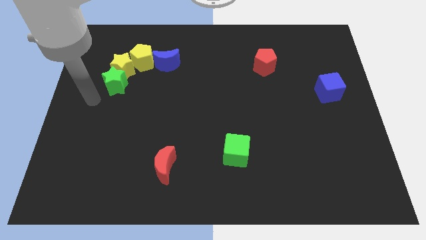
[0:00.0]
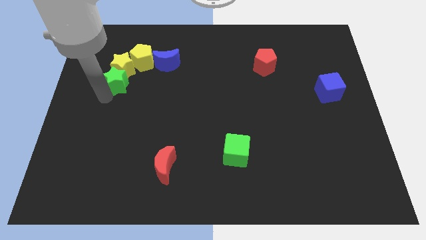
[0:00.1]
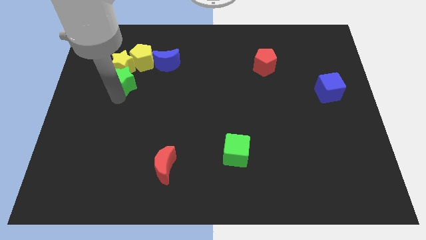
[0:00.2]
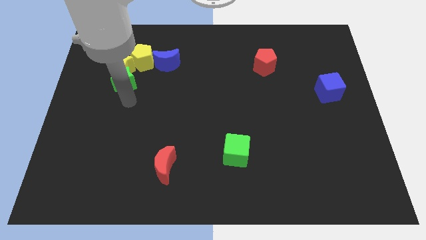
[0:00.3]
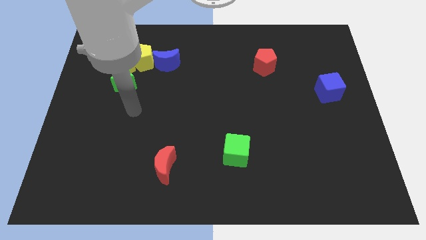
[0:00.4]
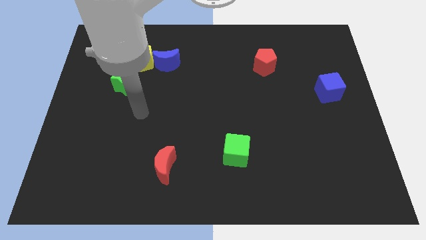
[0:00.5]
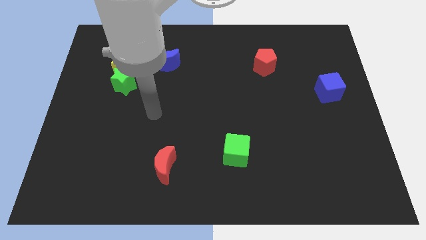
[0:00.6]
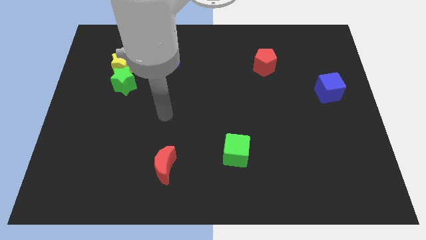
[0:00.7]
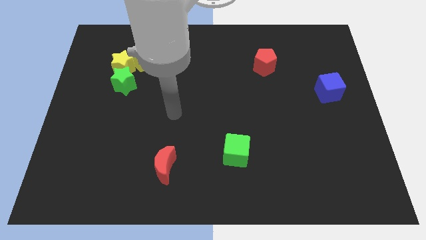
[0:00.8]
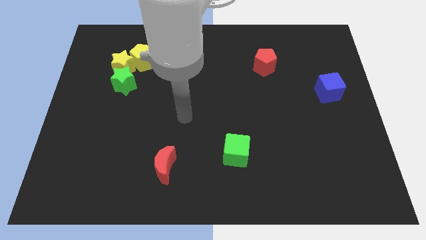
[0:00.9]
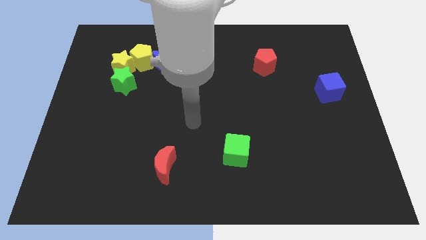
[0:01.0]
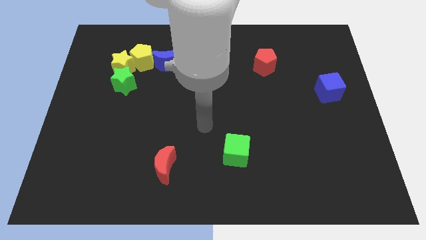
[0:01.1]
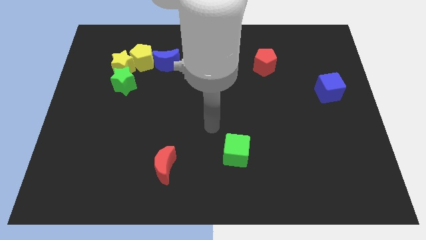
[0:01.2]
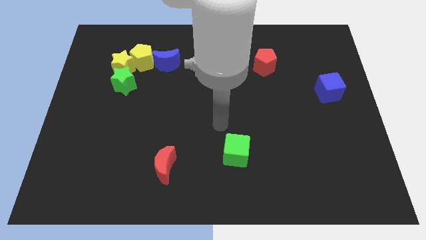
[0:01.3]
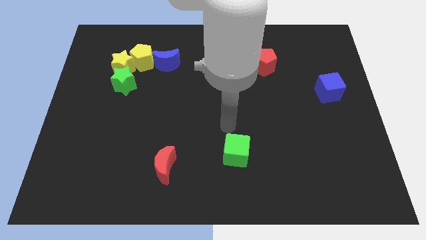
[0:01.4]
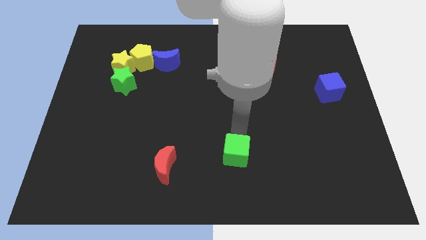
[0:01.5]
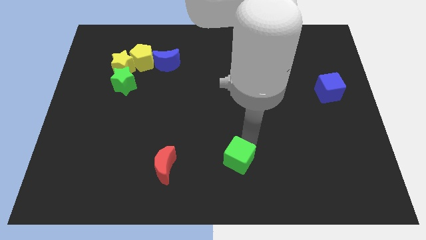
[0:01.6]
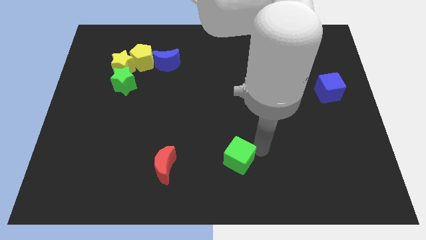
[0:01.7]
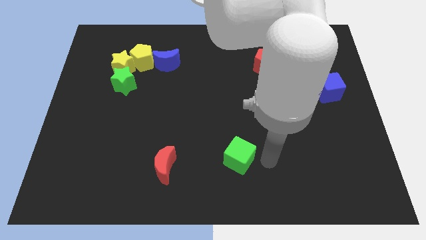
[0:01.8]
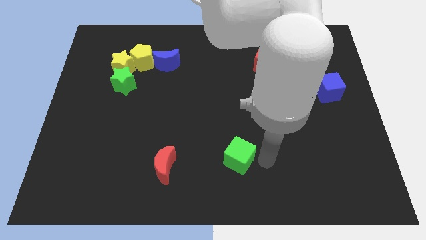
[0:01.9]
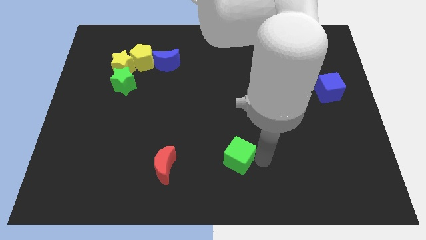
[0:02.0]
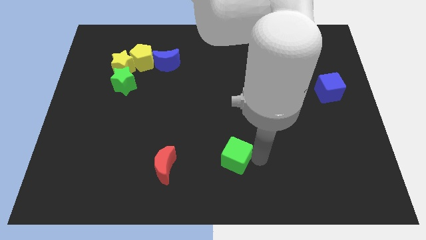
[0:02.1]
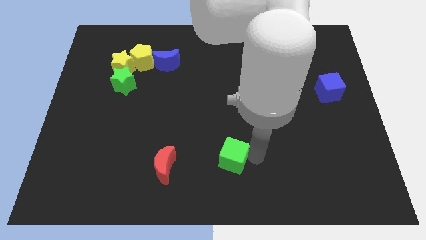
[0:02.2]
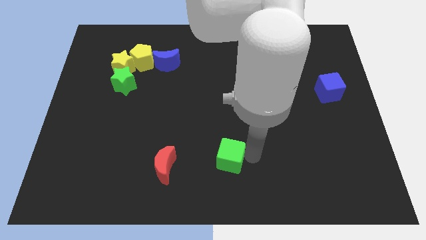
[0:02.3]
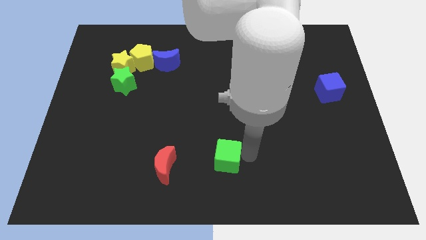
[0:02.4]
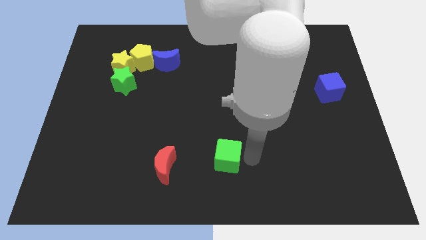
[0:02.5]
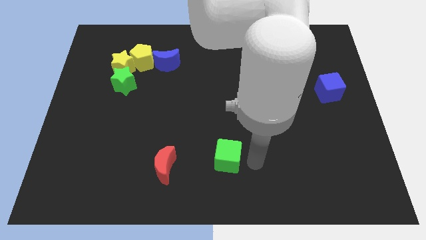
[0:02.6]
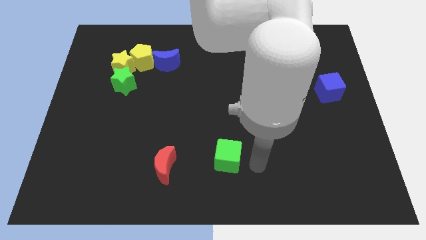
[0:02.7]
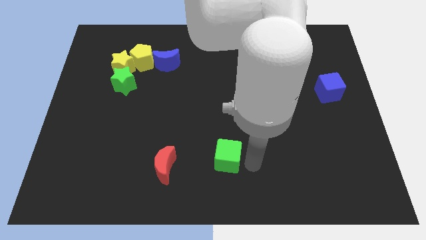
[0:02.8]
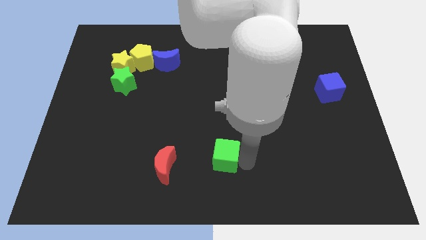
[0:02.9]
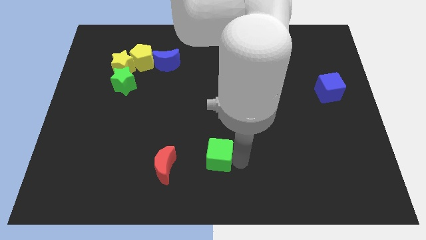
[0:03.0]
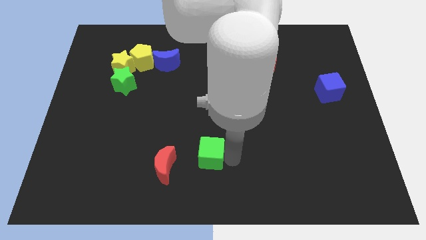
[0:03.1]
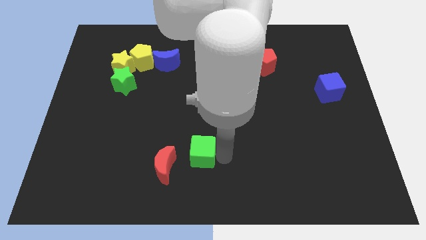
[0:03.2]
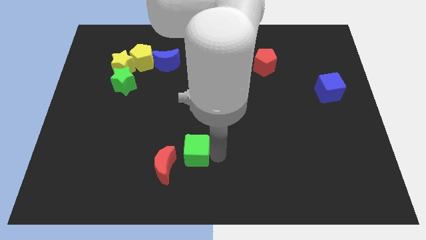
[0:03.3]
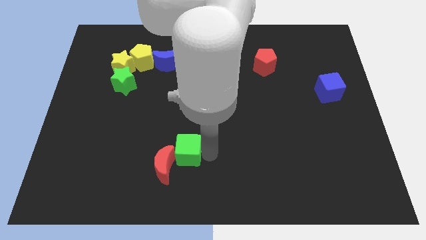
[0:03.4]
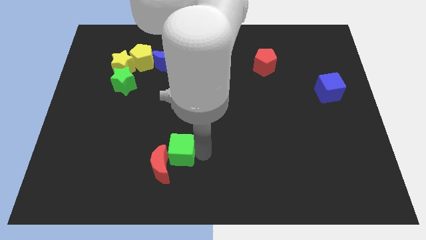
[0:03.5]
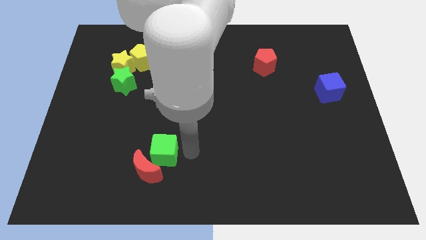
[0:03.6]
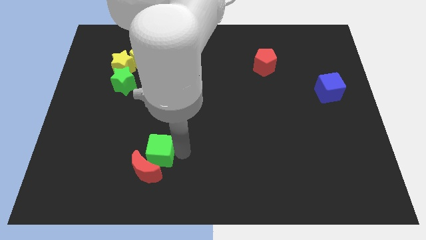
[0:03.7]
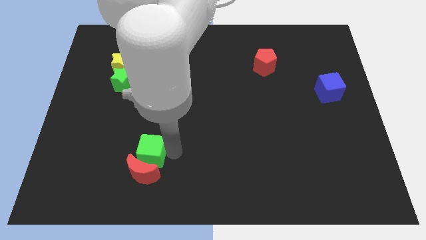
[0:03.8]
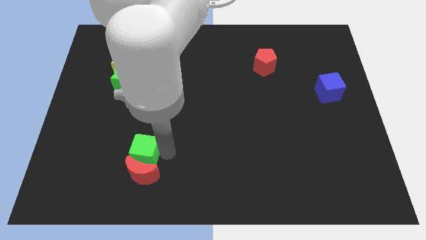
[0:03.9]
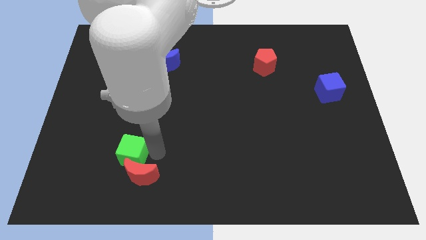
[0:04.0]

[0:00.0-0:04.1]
push the green cube left

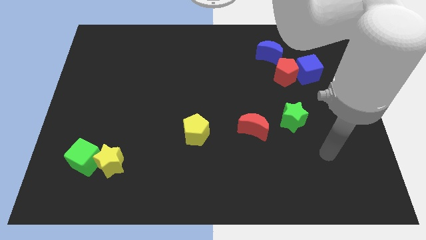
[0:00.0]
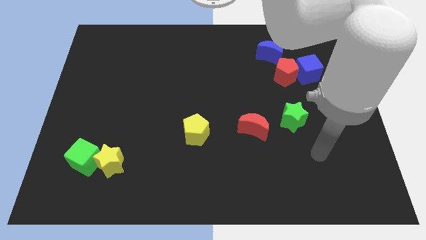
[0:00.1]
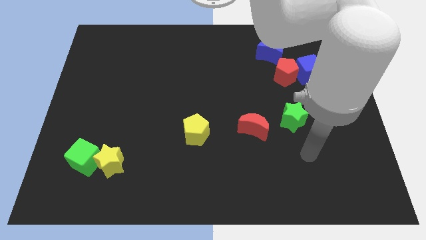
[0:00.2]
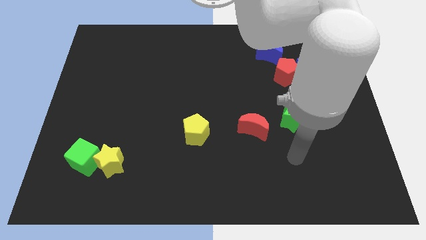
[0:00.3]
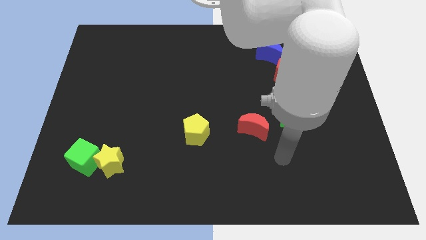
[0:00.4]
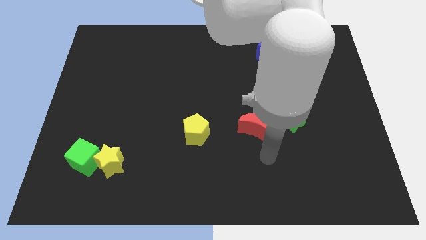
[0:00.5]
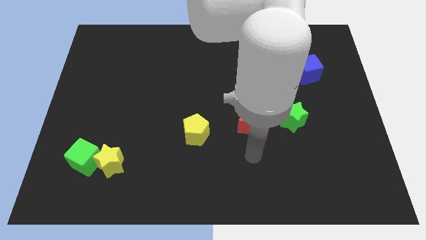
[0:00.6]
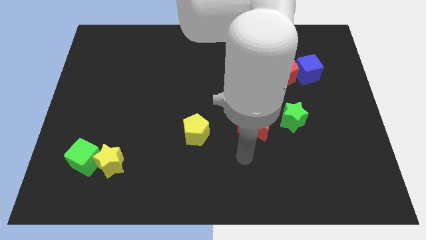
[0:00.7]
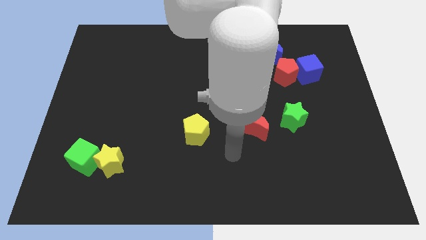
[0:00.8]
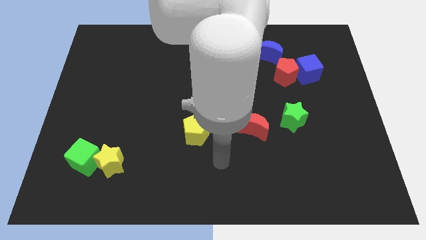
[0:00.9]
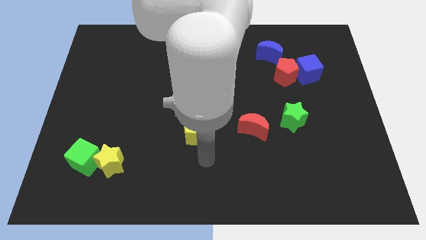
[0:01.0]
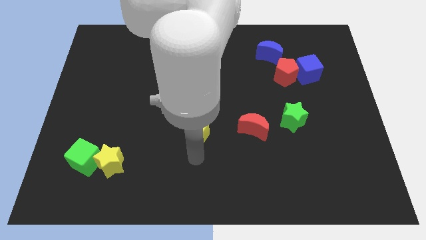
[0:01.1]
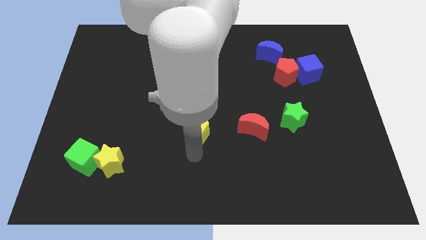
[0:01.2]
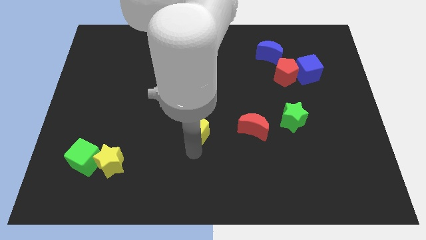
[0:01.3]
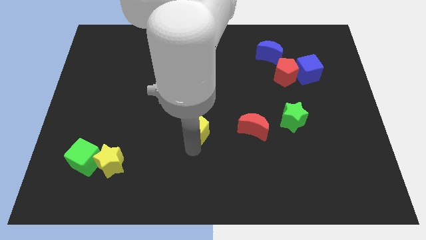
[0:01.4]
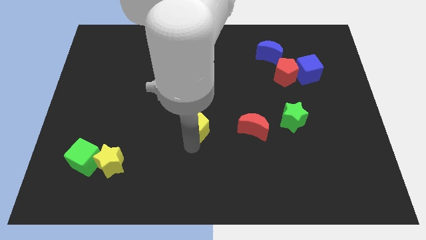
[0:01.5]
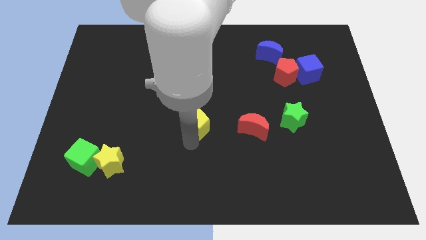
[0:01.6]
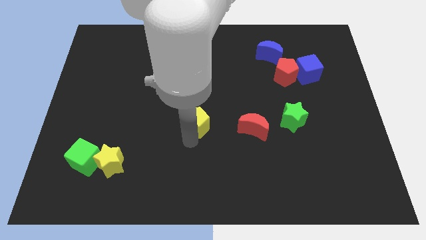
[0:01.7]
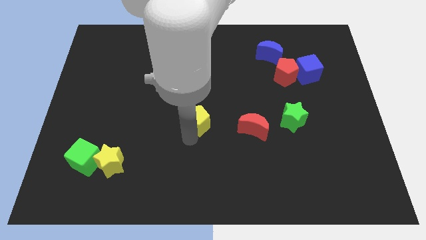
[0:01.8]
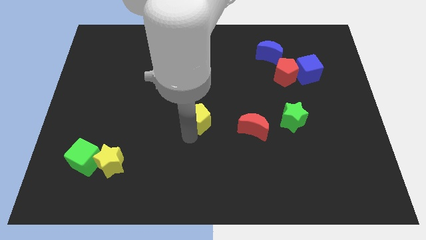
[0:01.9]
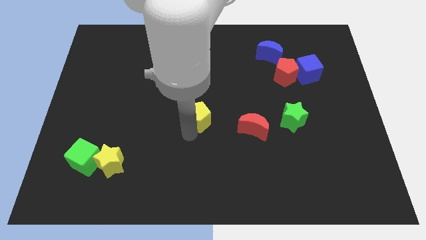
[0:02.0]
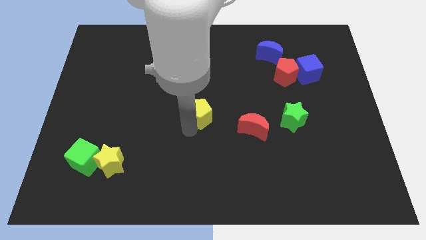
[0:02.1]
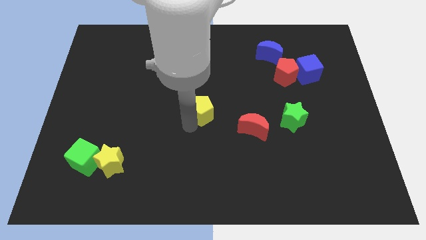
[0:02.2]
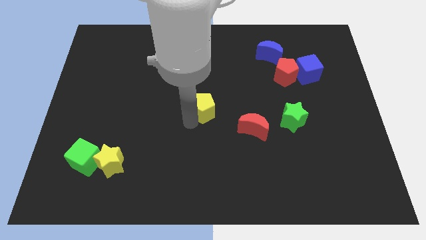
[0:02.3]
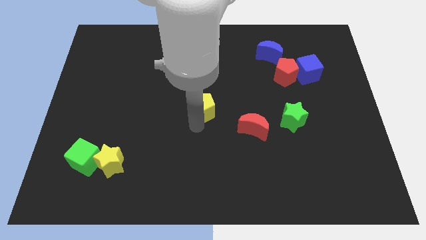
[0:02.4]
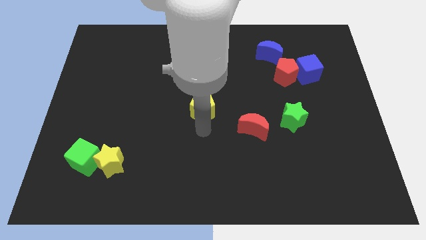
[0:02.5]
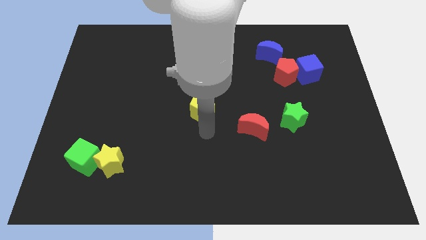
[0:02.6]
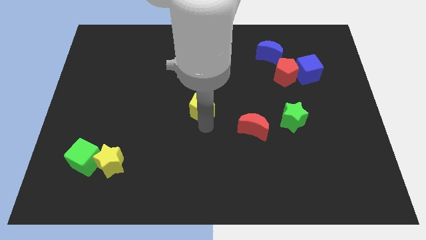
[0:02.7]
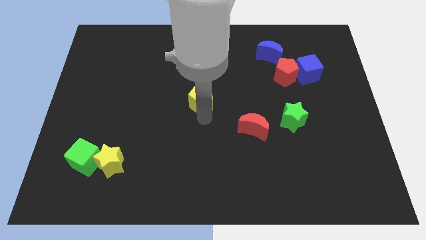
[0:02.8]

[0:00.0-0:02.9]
slightly slide the yellow pentagon upwards

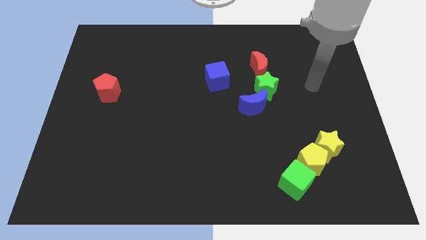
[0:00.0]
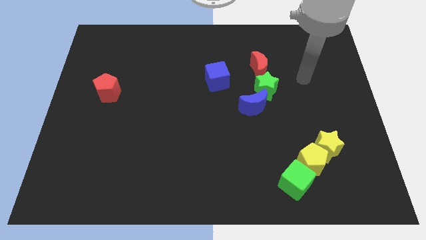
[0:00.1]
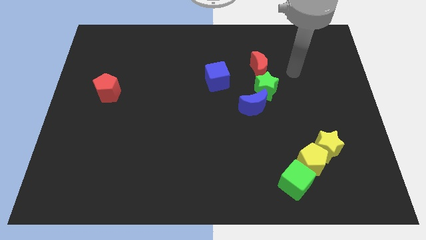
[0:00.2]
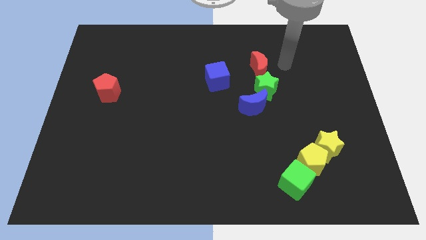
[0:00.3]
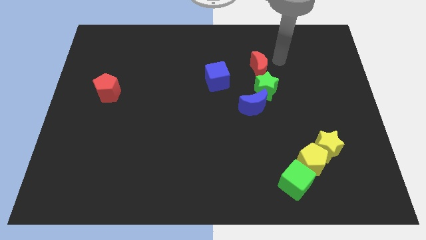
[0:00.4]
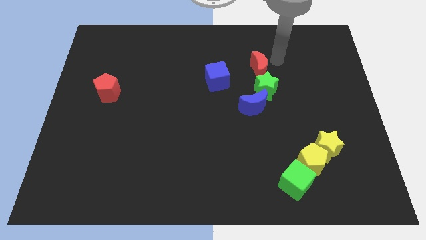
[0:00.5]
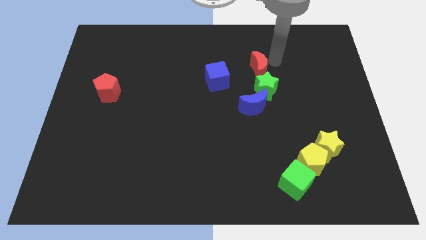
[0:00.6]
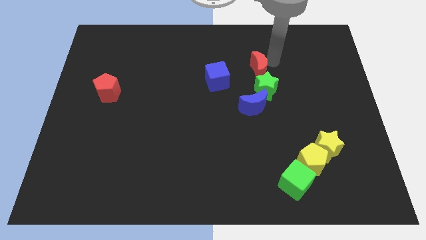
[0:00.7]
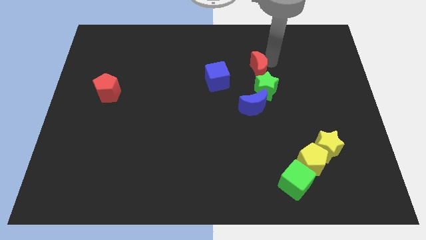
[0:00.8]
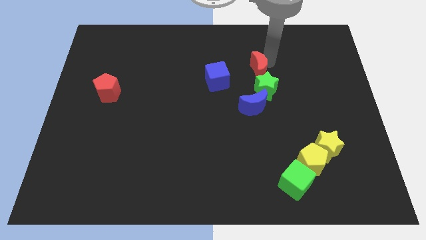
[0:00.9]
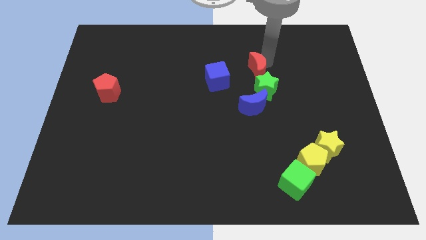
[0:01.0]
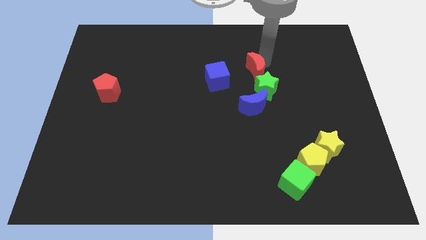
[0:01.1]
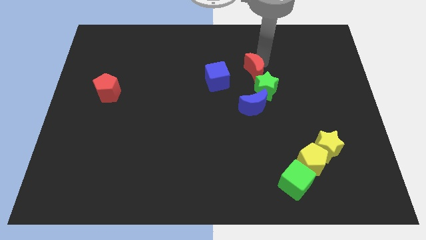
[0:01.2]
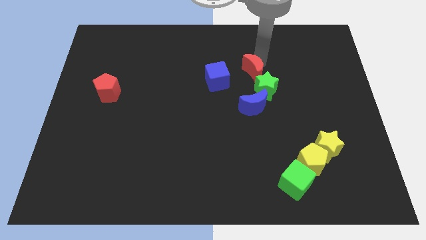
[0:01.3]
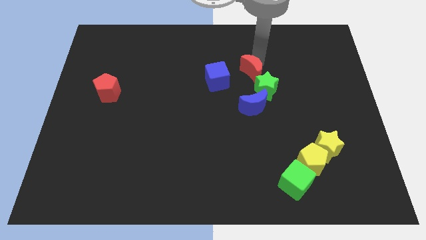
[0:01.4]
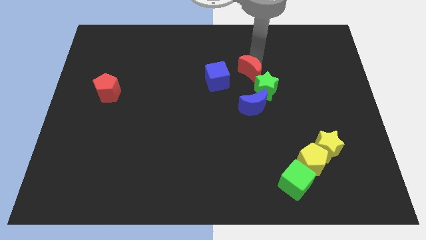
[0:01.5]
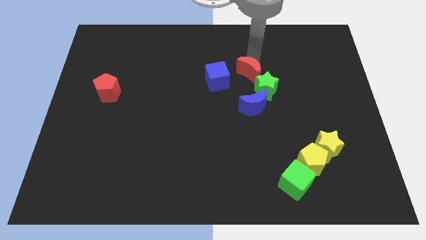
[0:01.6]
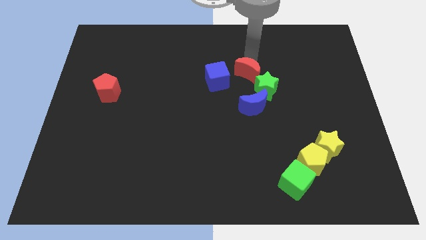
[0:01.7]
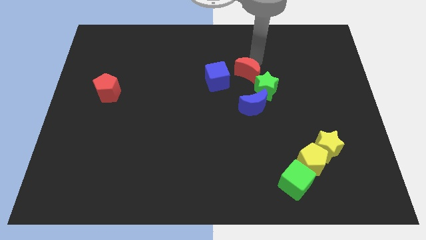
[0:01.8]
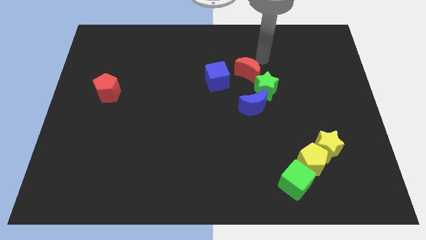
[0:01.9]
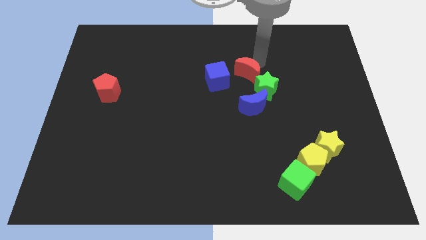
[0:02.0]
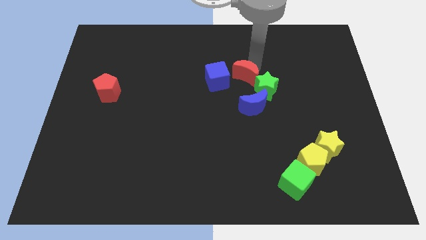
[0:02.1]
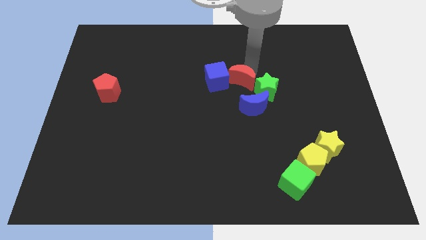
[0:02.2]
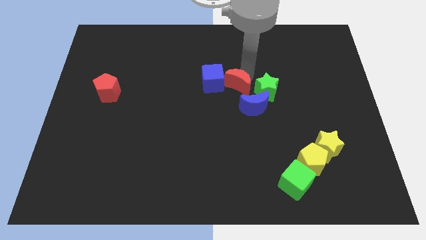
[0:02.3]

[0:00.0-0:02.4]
slightly push the red moon down and to the left diagonally
